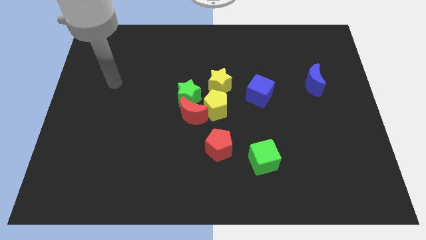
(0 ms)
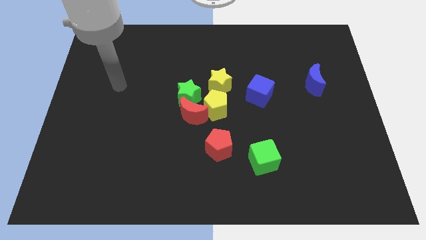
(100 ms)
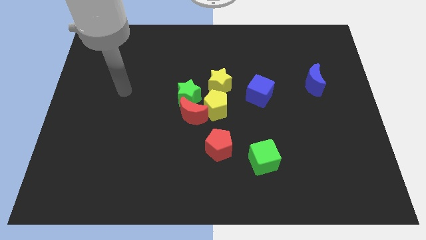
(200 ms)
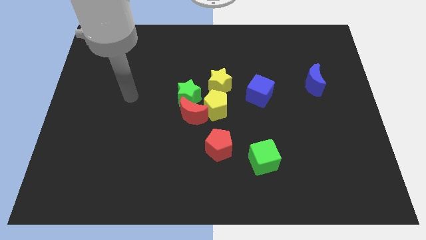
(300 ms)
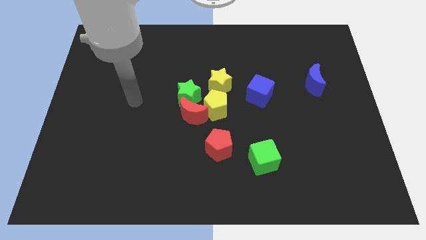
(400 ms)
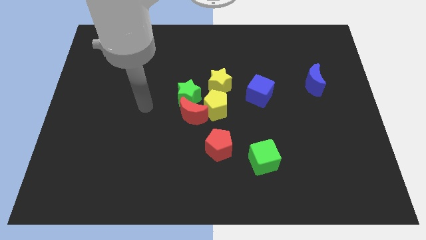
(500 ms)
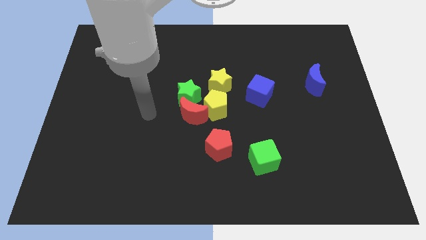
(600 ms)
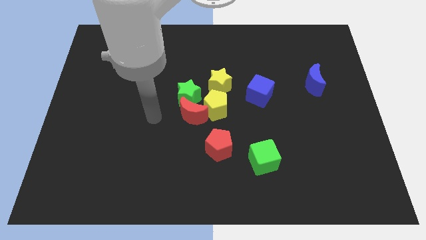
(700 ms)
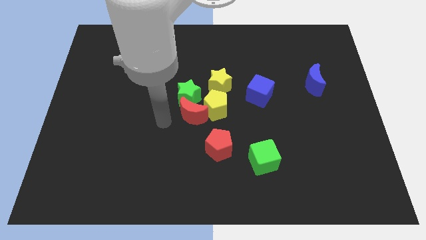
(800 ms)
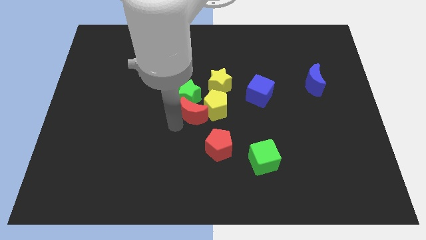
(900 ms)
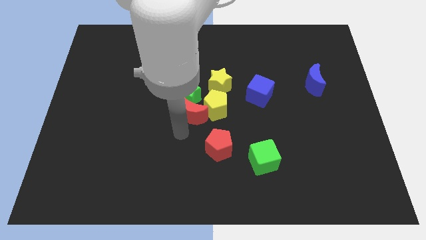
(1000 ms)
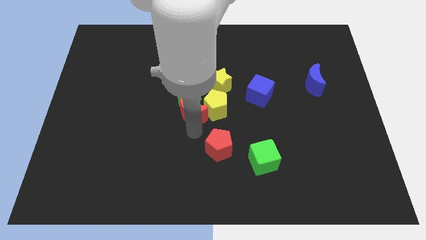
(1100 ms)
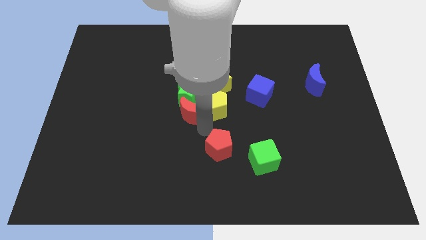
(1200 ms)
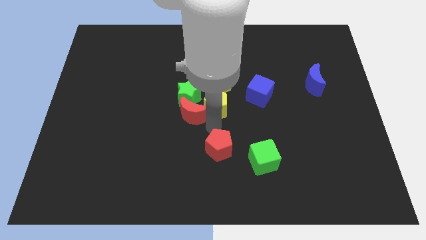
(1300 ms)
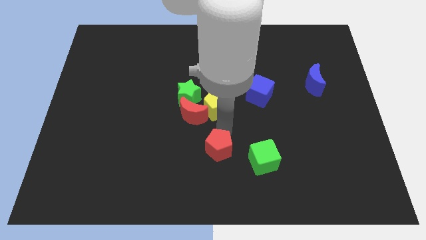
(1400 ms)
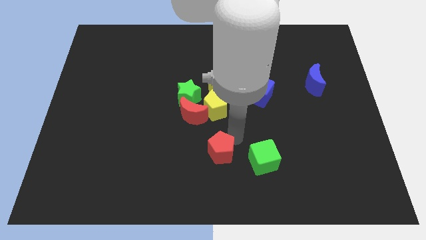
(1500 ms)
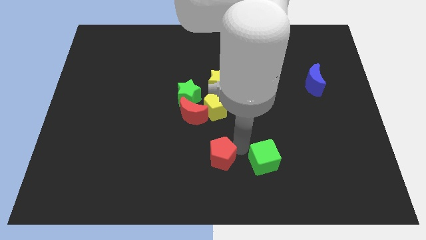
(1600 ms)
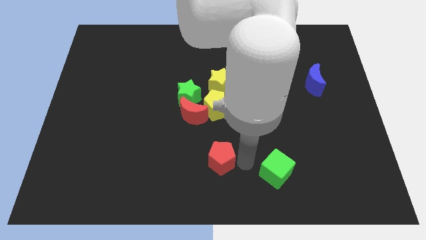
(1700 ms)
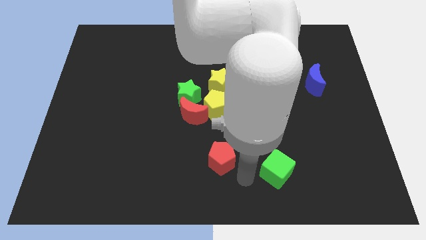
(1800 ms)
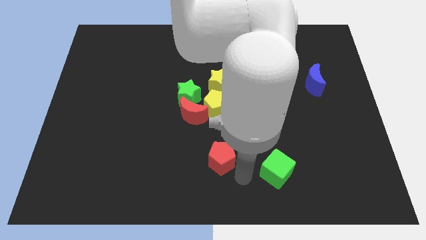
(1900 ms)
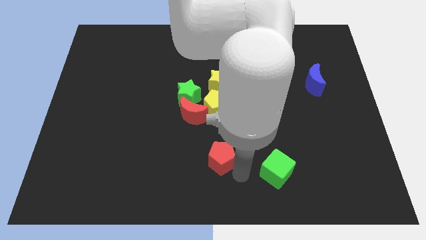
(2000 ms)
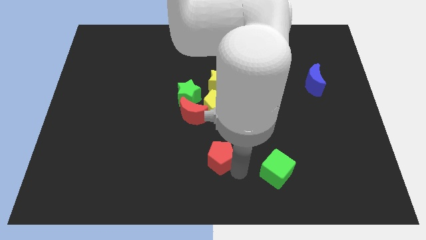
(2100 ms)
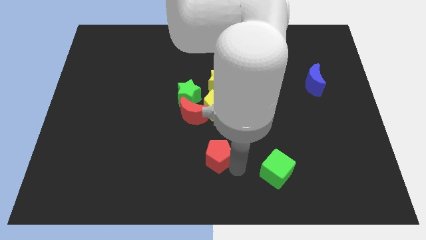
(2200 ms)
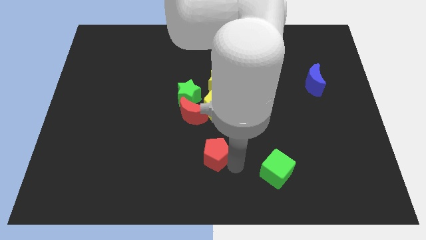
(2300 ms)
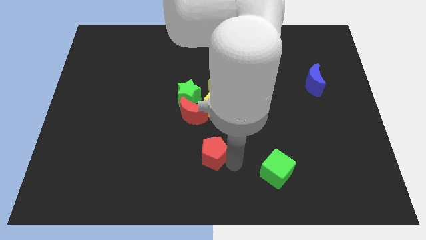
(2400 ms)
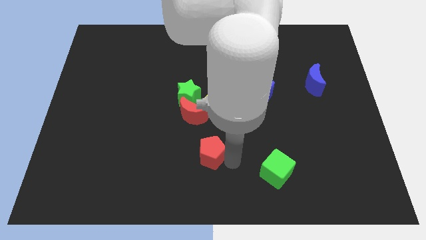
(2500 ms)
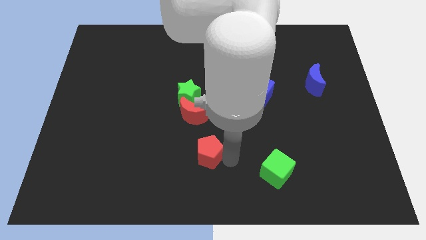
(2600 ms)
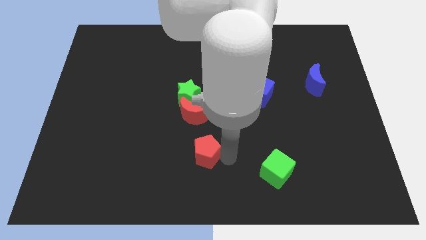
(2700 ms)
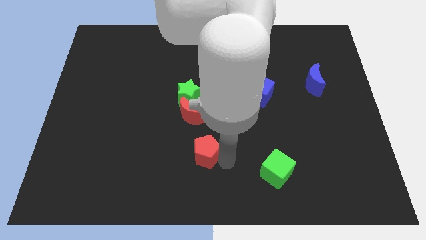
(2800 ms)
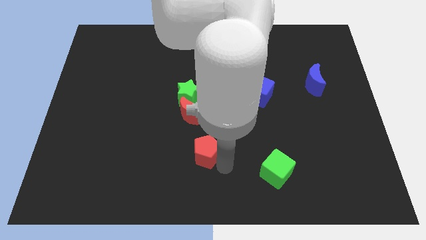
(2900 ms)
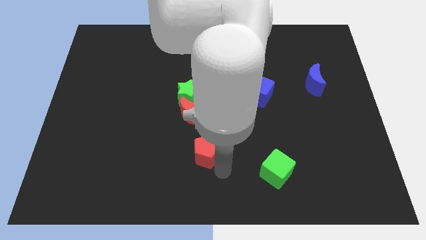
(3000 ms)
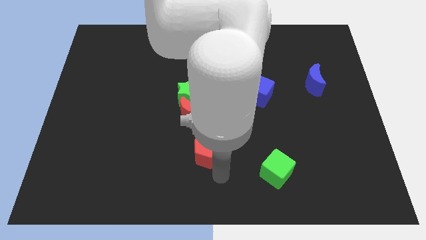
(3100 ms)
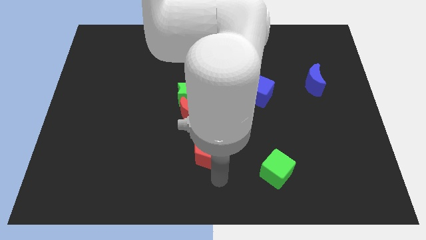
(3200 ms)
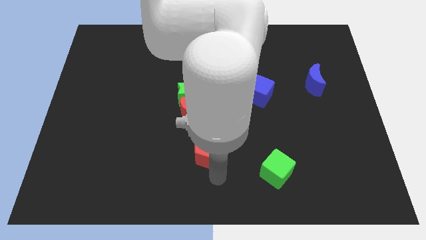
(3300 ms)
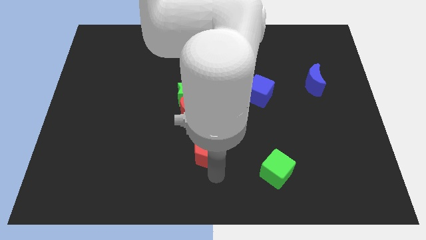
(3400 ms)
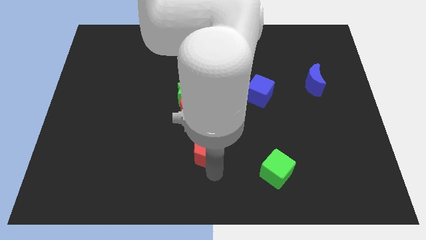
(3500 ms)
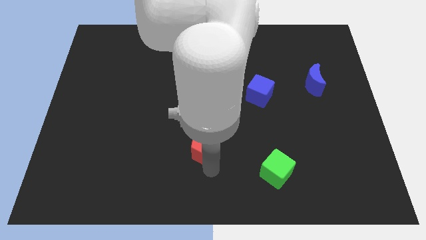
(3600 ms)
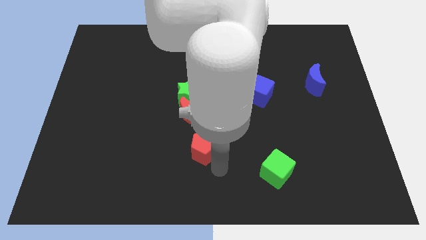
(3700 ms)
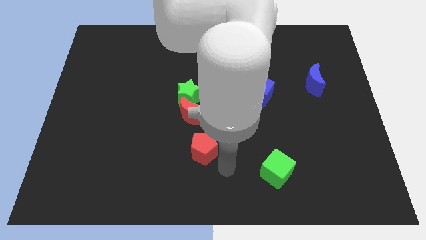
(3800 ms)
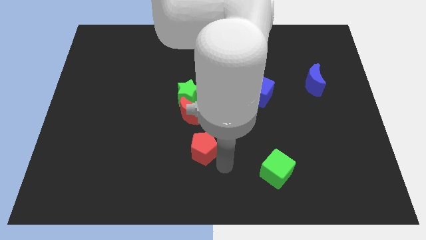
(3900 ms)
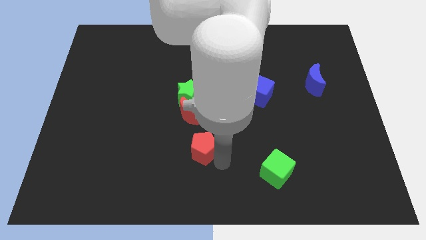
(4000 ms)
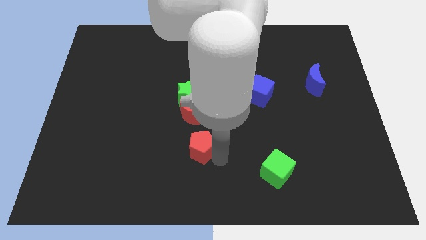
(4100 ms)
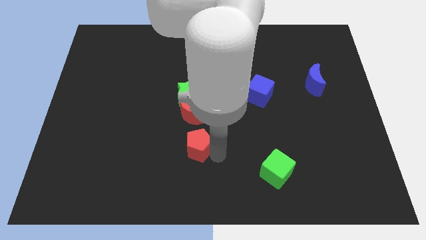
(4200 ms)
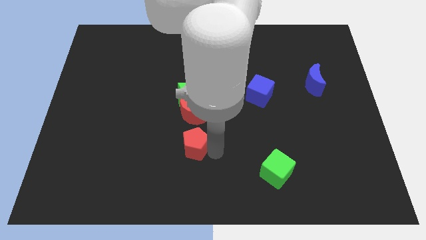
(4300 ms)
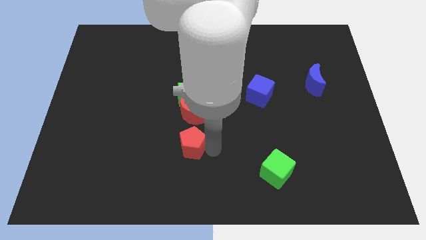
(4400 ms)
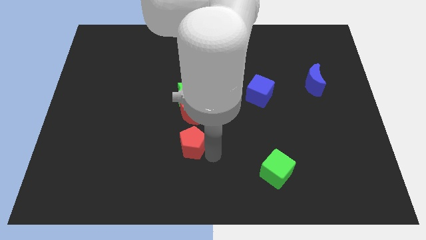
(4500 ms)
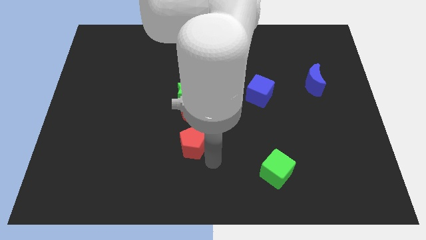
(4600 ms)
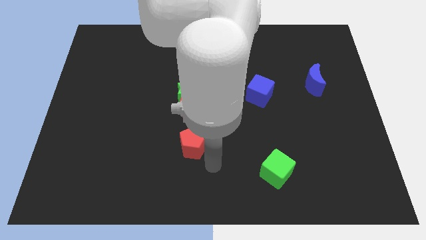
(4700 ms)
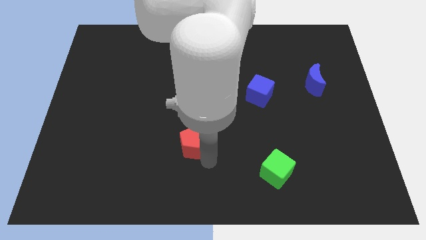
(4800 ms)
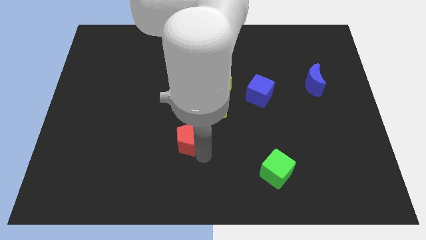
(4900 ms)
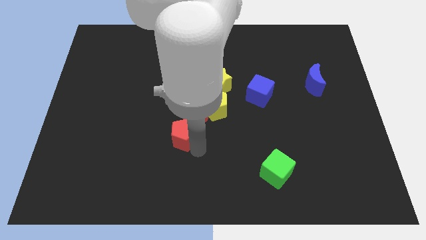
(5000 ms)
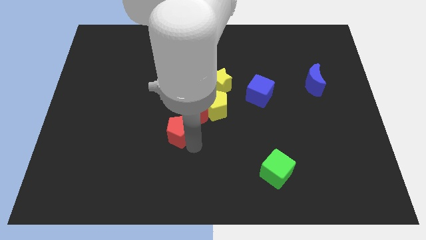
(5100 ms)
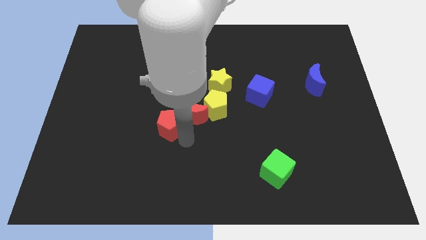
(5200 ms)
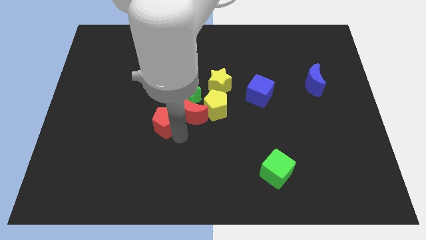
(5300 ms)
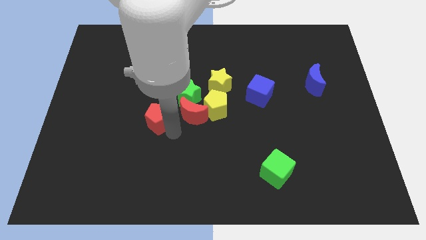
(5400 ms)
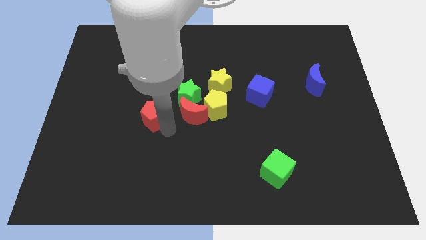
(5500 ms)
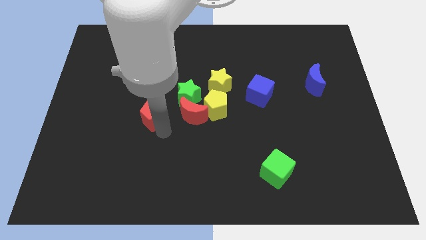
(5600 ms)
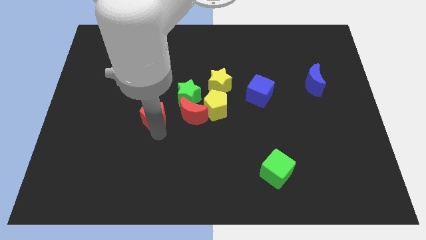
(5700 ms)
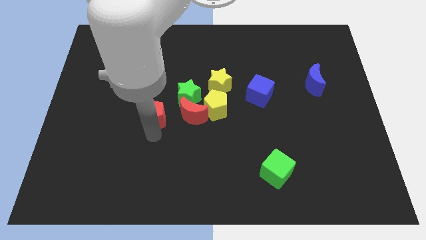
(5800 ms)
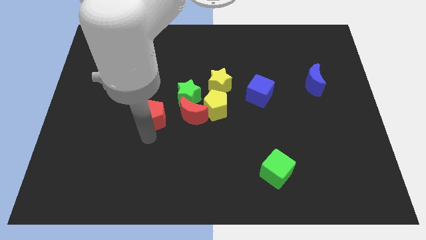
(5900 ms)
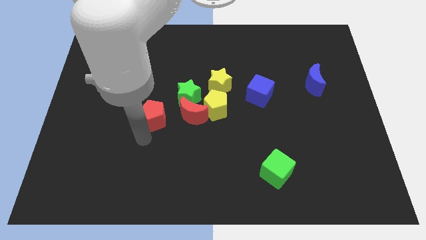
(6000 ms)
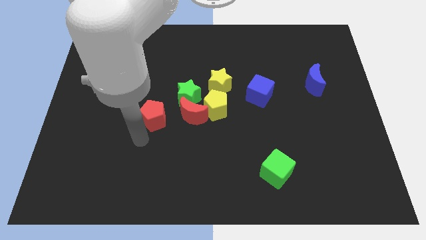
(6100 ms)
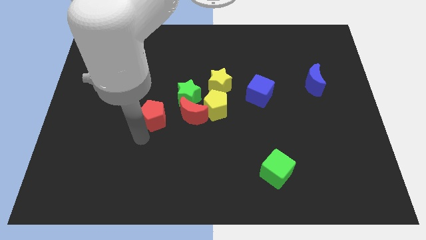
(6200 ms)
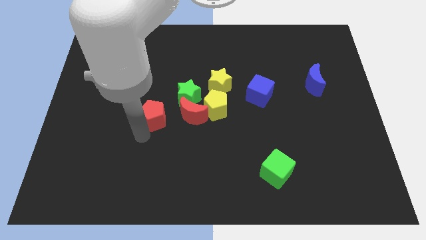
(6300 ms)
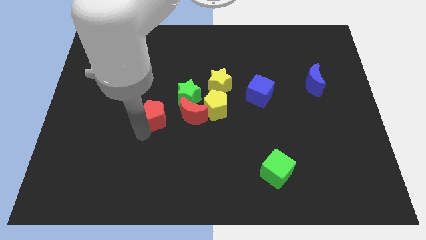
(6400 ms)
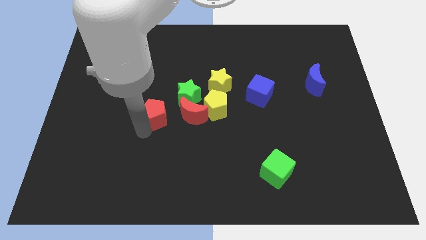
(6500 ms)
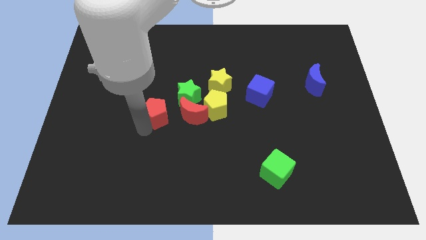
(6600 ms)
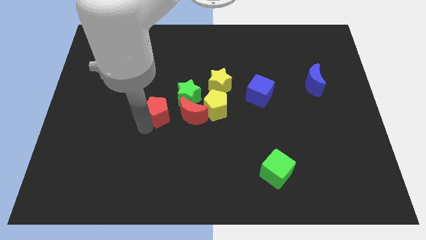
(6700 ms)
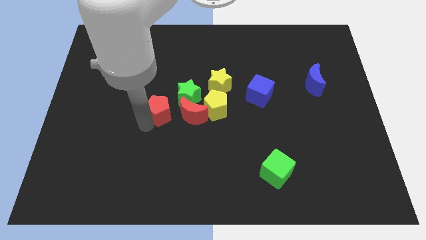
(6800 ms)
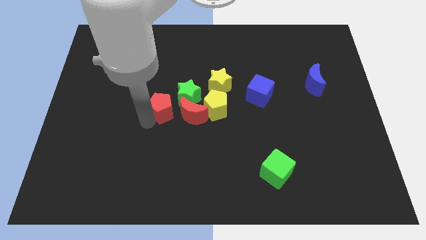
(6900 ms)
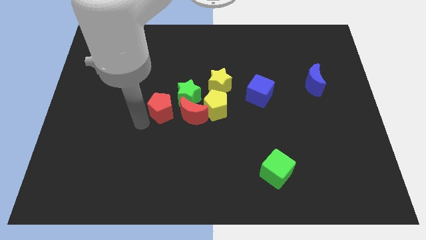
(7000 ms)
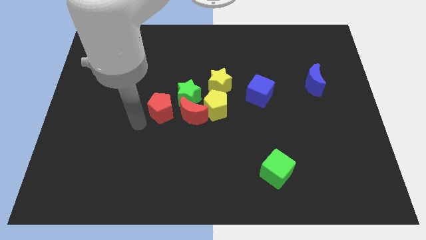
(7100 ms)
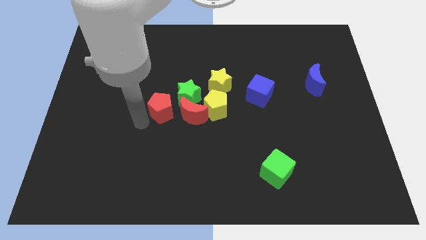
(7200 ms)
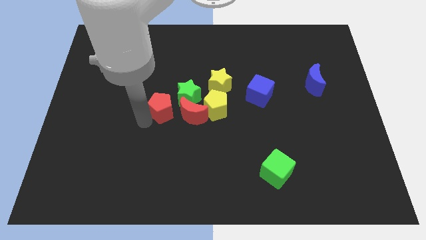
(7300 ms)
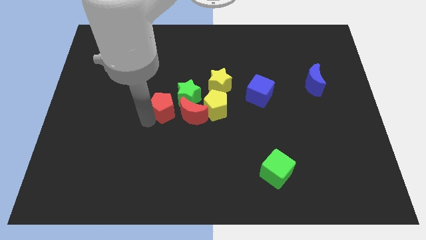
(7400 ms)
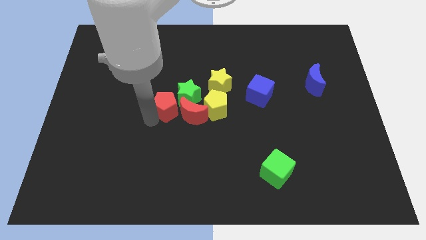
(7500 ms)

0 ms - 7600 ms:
push the red pentagon next to the green star
